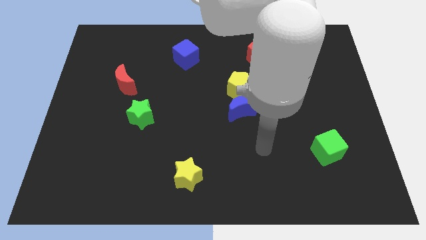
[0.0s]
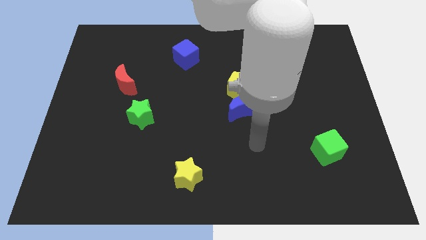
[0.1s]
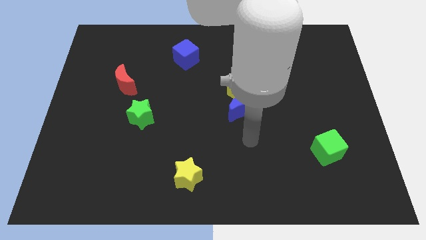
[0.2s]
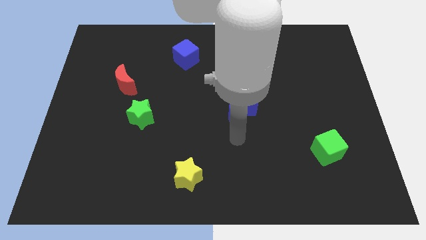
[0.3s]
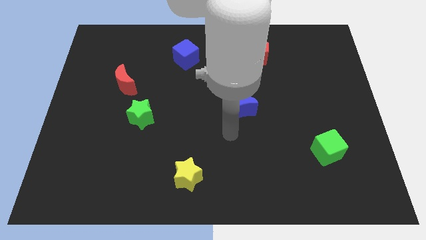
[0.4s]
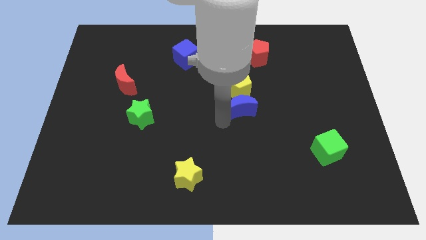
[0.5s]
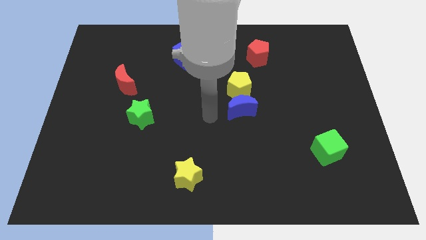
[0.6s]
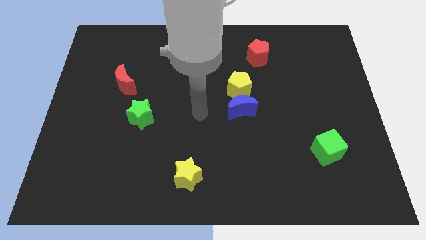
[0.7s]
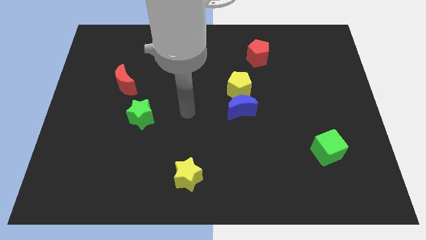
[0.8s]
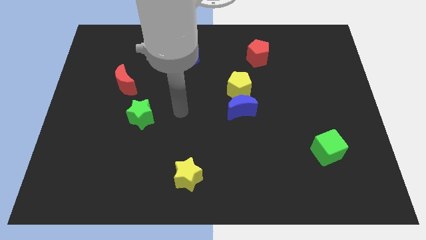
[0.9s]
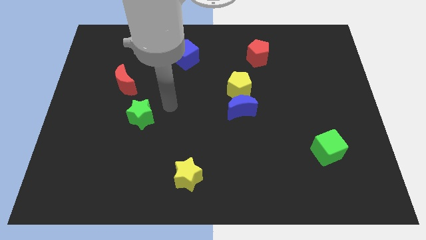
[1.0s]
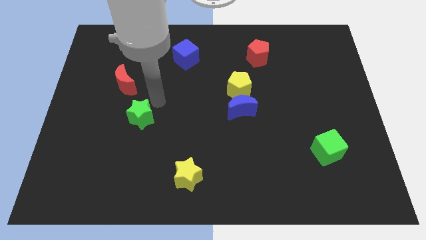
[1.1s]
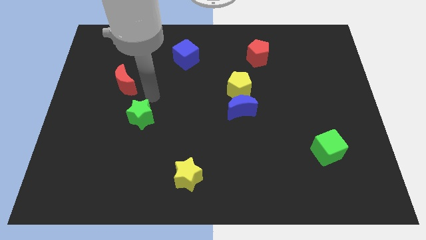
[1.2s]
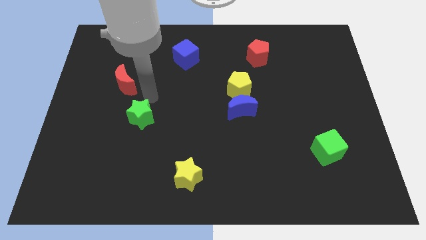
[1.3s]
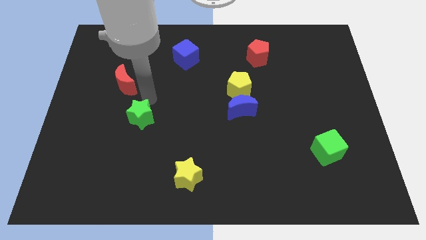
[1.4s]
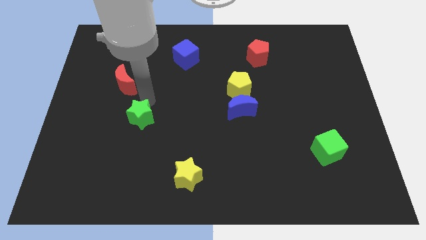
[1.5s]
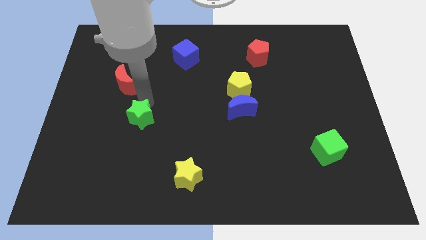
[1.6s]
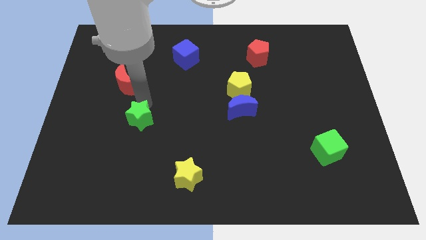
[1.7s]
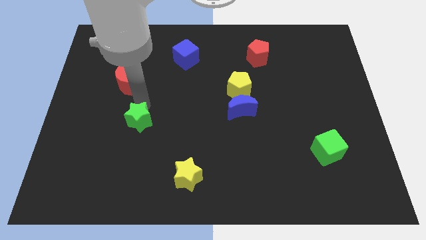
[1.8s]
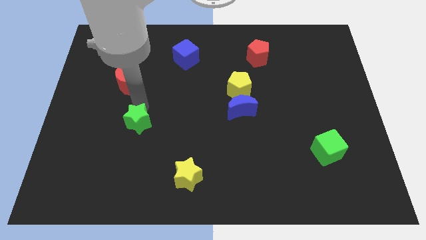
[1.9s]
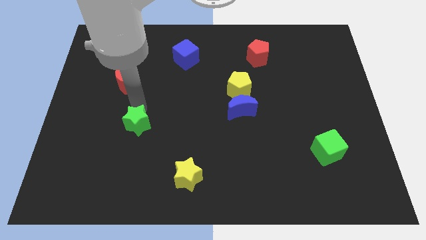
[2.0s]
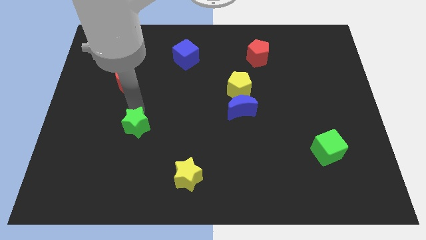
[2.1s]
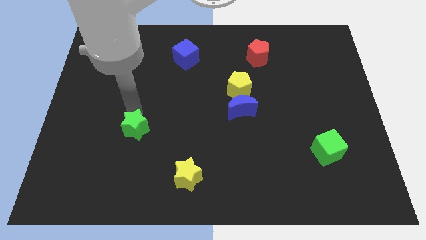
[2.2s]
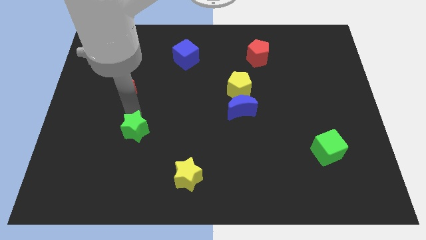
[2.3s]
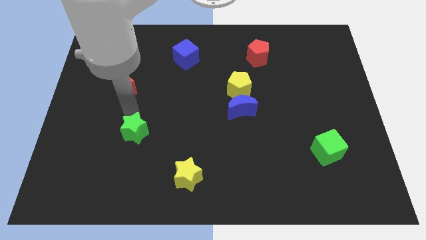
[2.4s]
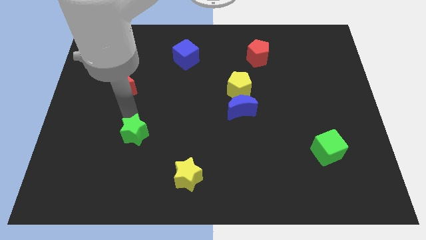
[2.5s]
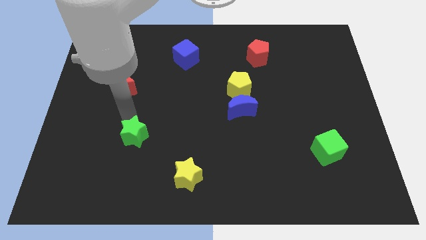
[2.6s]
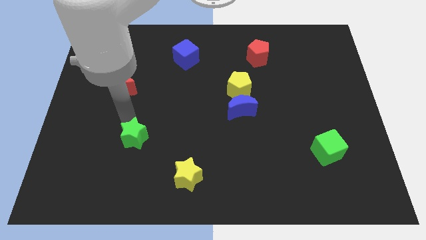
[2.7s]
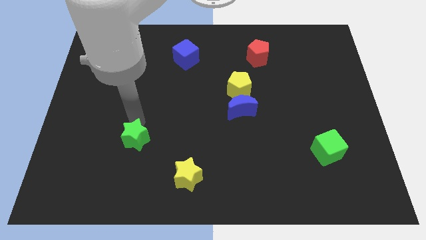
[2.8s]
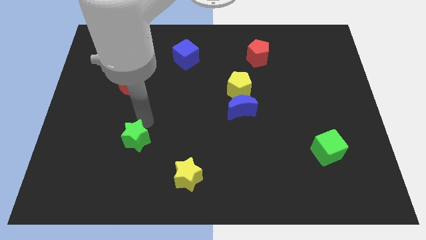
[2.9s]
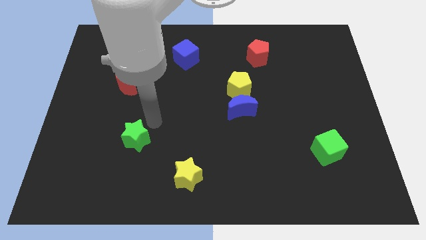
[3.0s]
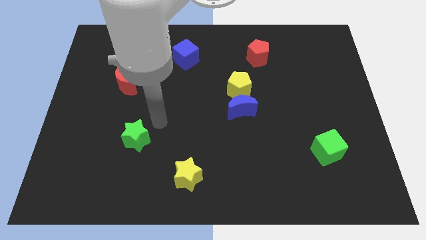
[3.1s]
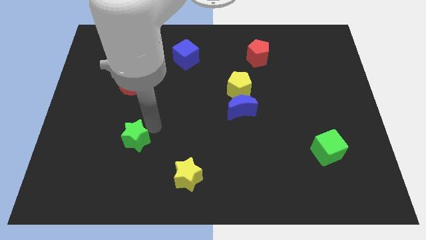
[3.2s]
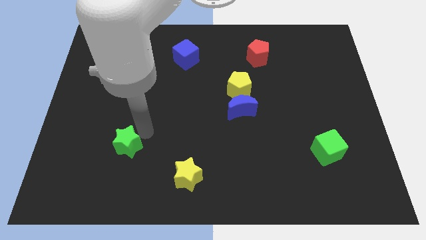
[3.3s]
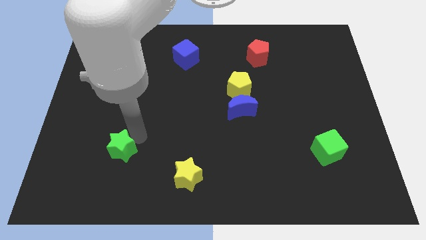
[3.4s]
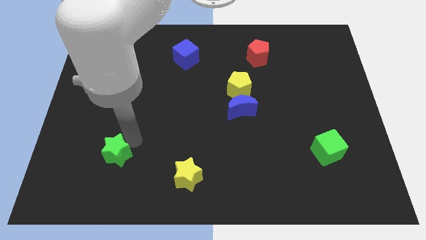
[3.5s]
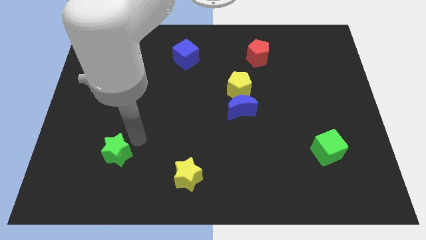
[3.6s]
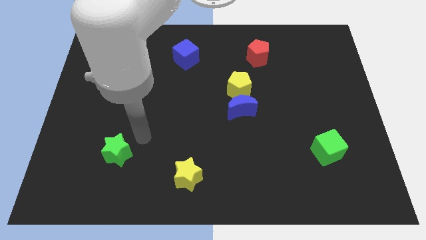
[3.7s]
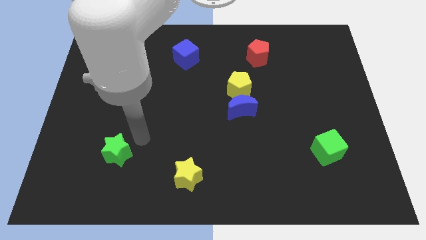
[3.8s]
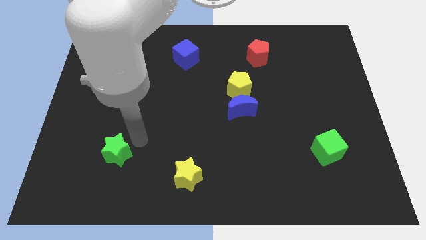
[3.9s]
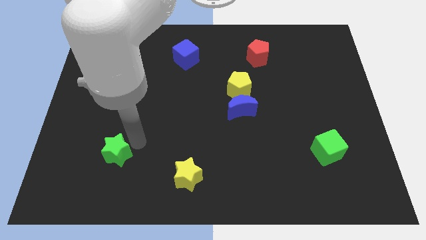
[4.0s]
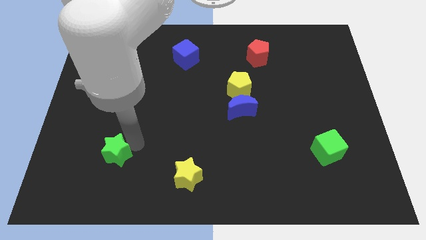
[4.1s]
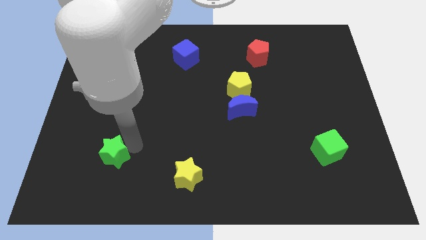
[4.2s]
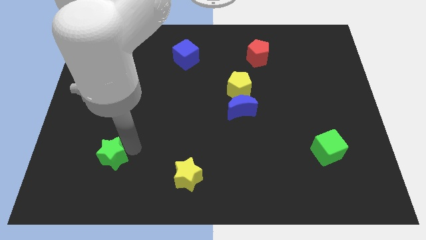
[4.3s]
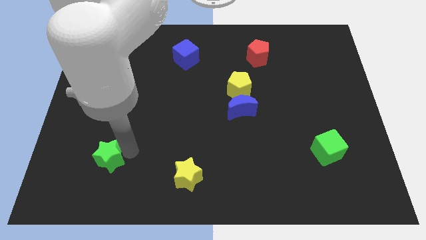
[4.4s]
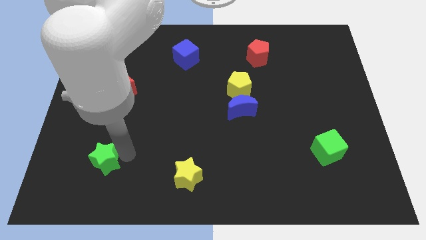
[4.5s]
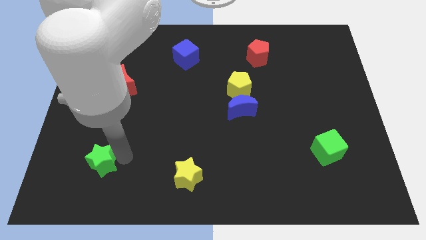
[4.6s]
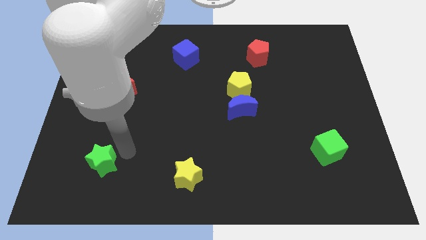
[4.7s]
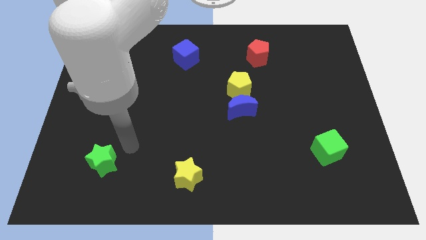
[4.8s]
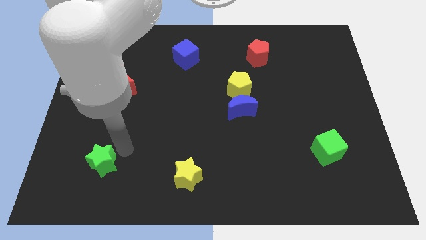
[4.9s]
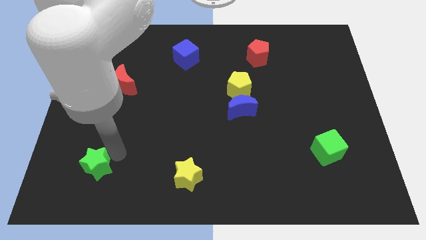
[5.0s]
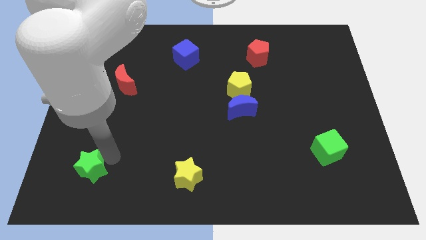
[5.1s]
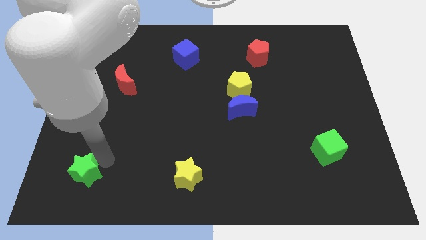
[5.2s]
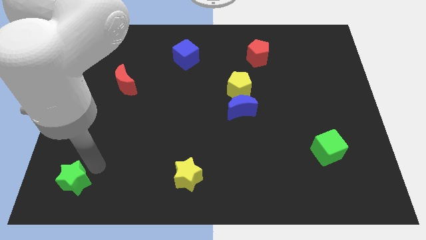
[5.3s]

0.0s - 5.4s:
put the green star to the bottom left

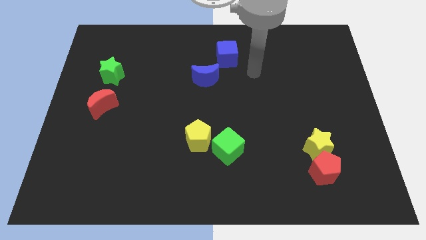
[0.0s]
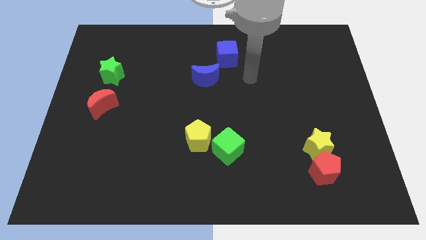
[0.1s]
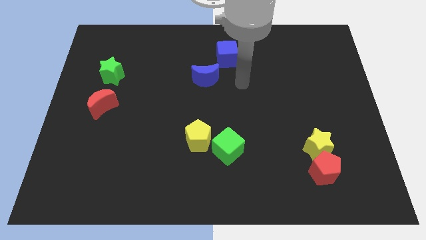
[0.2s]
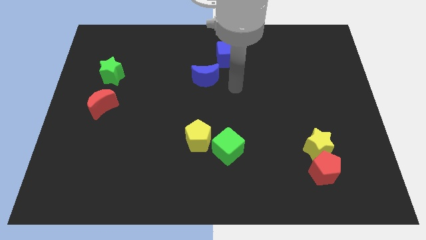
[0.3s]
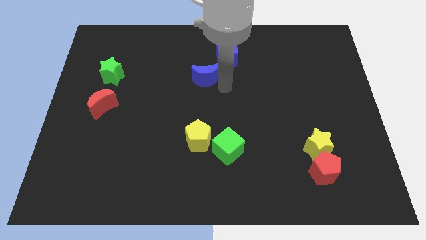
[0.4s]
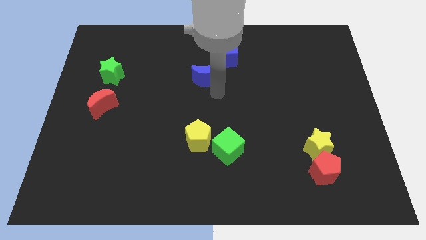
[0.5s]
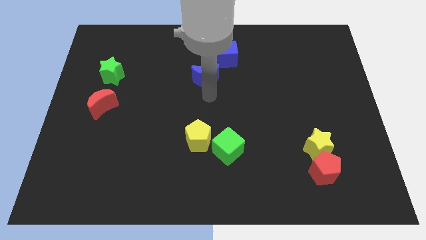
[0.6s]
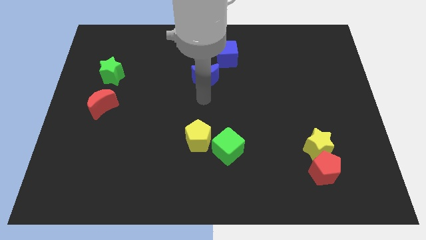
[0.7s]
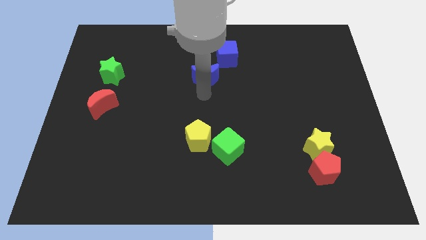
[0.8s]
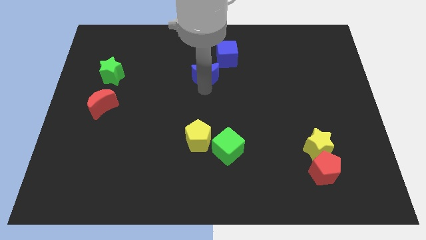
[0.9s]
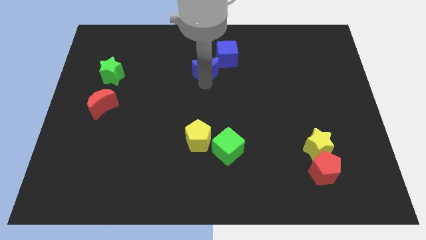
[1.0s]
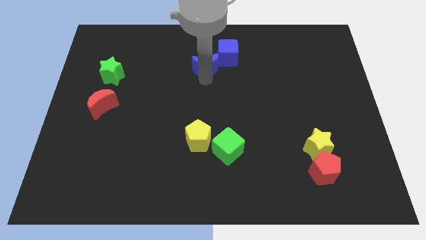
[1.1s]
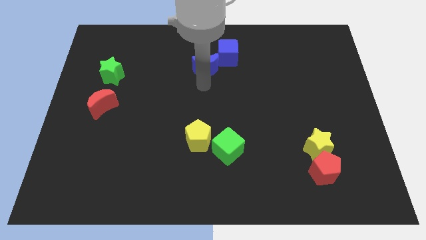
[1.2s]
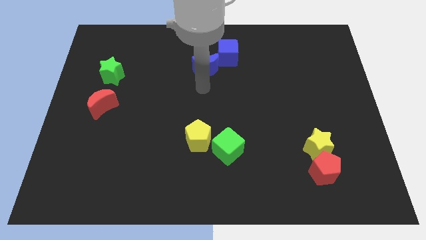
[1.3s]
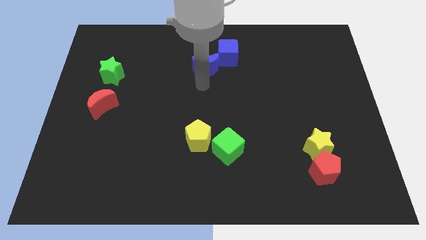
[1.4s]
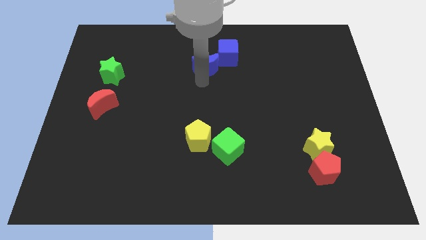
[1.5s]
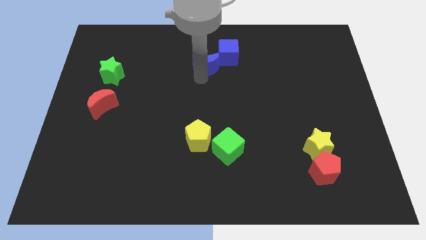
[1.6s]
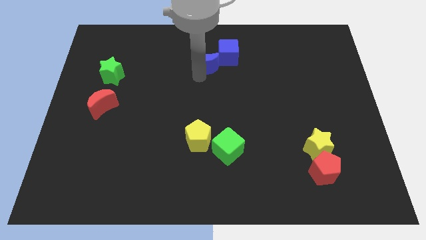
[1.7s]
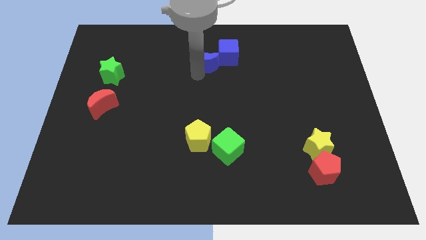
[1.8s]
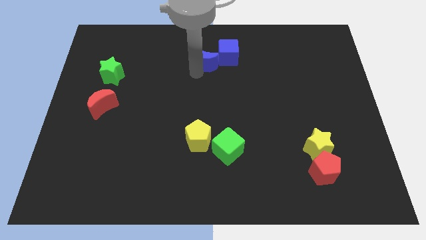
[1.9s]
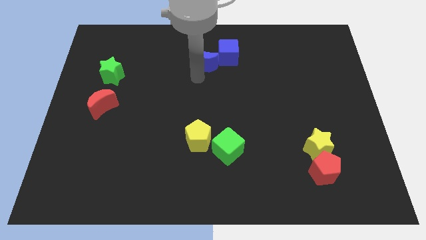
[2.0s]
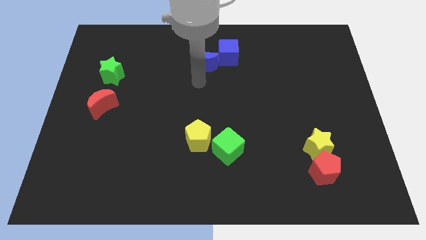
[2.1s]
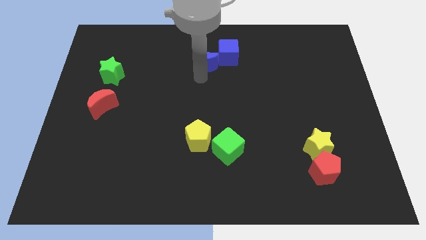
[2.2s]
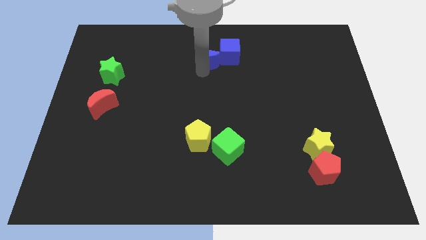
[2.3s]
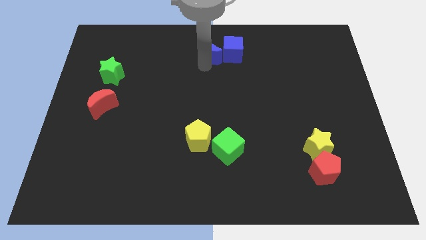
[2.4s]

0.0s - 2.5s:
put the blue moon to the top side
